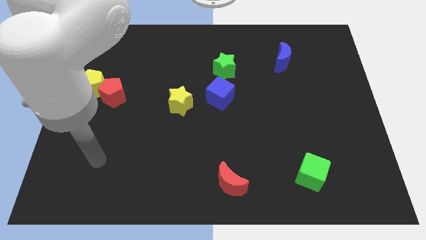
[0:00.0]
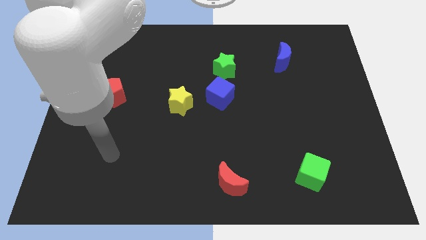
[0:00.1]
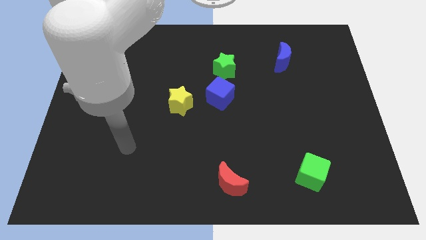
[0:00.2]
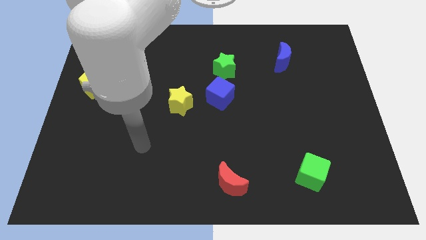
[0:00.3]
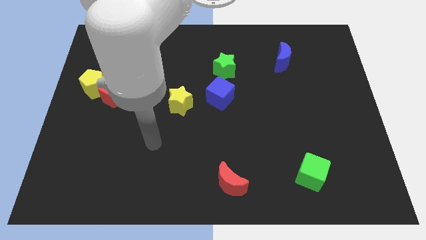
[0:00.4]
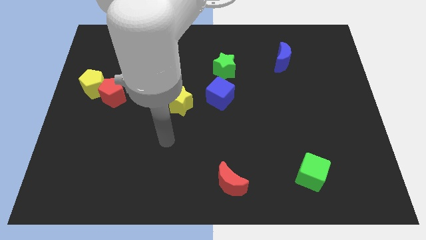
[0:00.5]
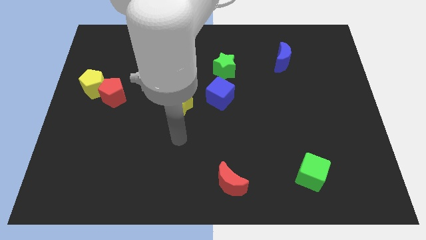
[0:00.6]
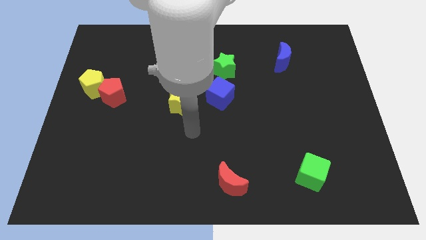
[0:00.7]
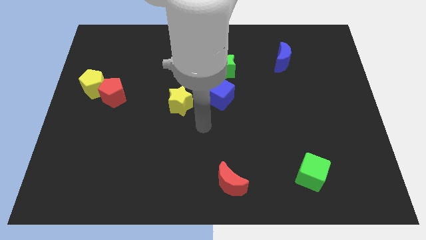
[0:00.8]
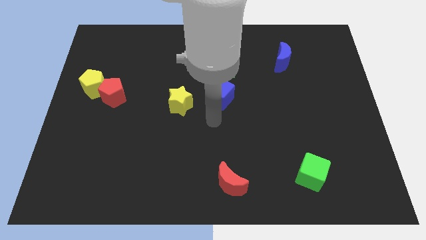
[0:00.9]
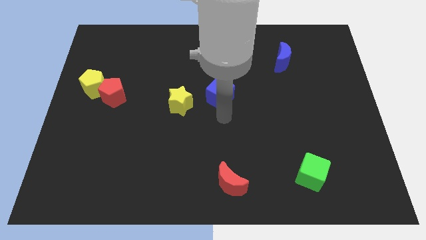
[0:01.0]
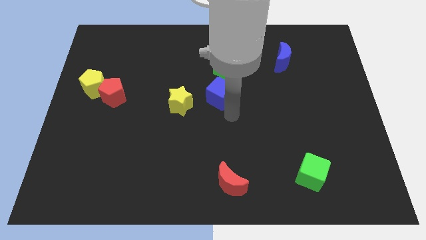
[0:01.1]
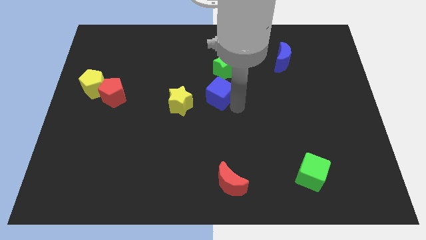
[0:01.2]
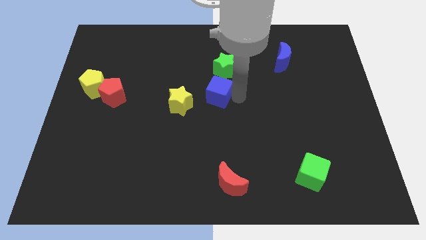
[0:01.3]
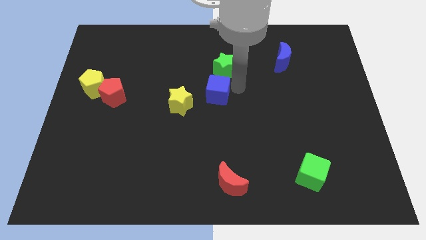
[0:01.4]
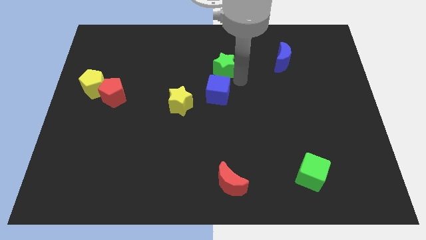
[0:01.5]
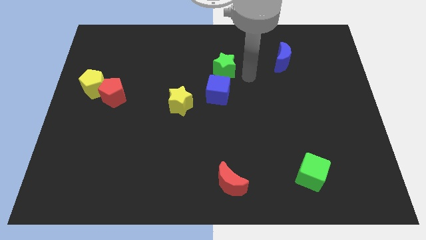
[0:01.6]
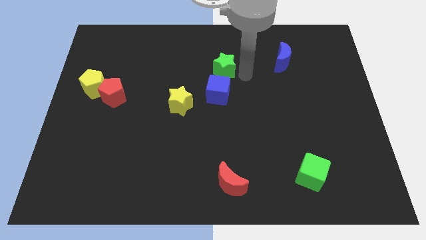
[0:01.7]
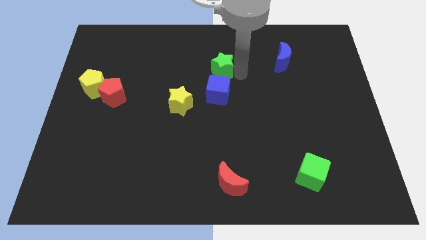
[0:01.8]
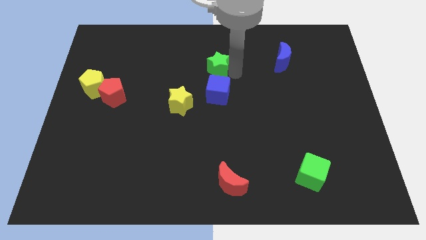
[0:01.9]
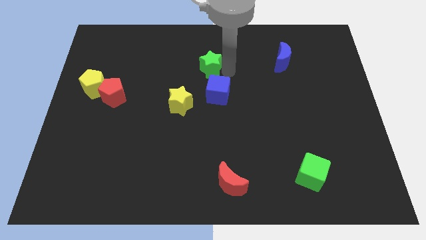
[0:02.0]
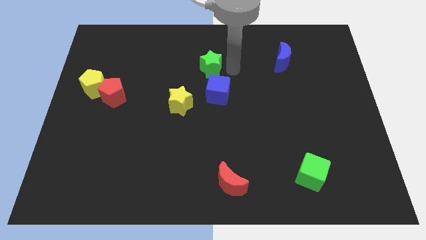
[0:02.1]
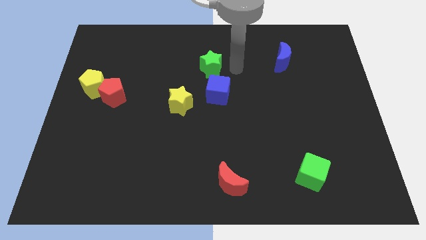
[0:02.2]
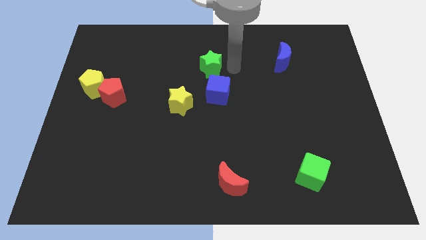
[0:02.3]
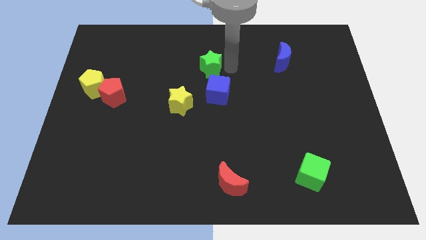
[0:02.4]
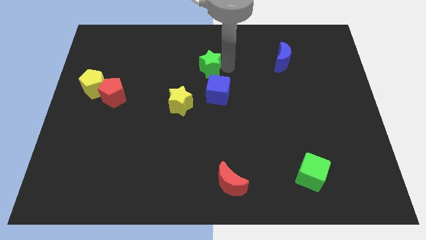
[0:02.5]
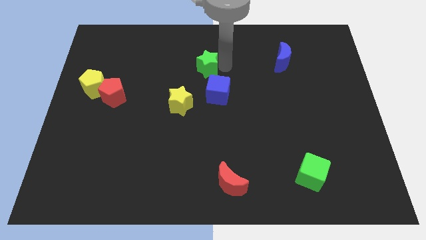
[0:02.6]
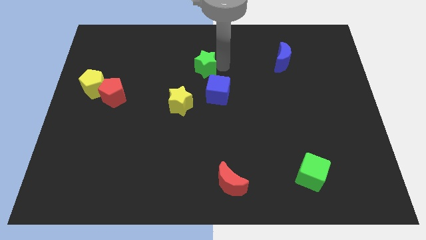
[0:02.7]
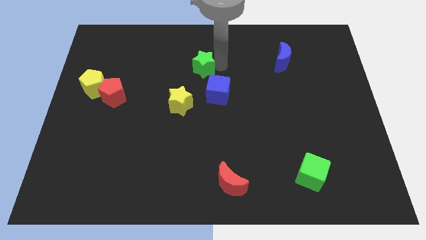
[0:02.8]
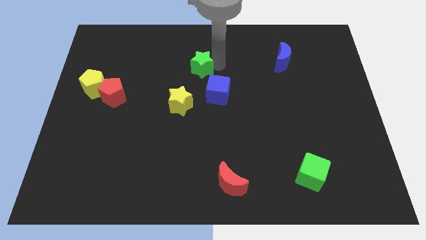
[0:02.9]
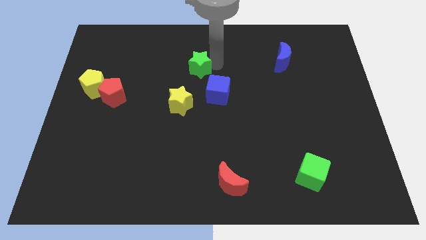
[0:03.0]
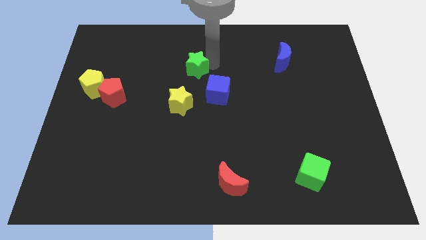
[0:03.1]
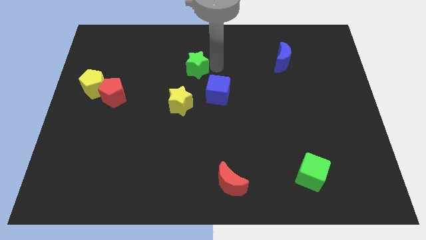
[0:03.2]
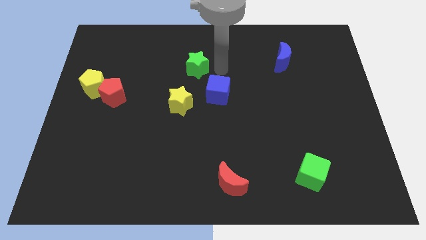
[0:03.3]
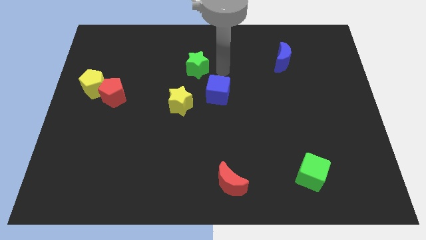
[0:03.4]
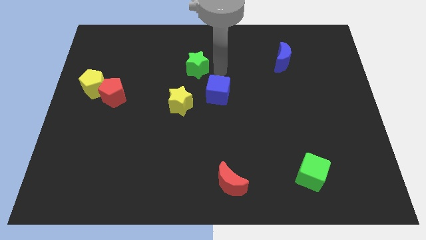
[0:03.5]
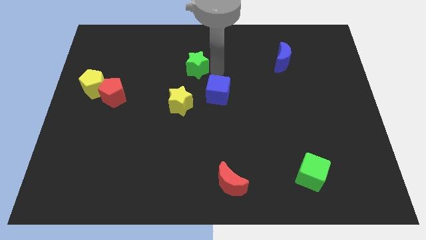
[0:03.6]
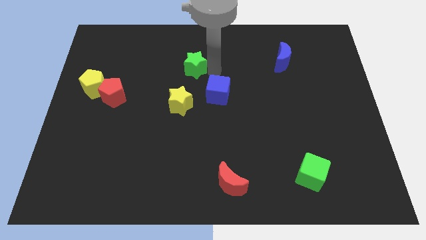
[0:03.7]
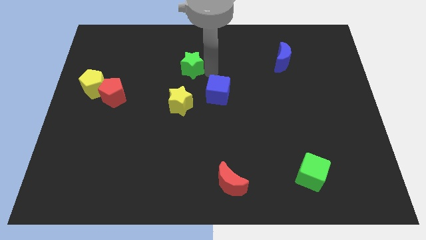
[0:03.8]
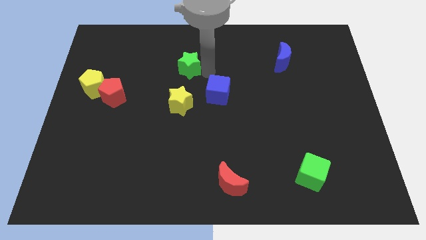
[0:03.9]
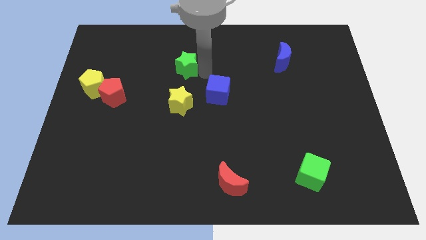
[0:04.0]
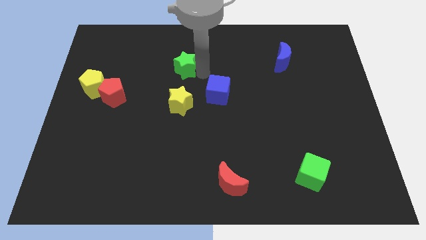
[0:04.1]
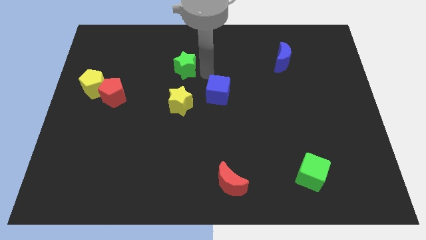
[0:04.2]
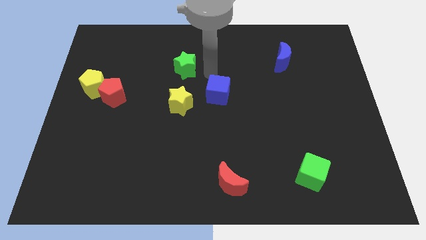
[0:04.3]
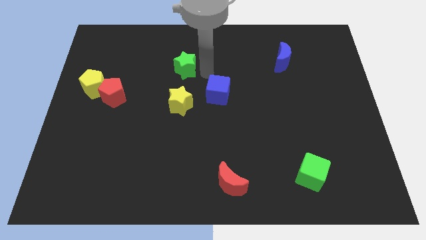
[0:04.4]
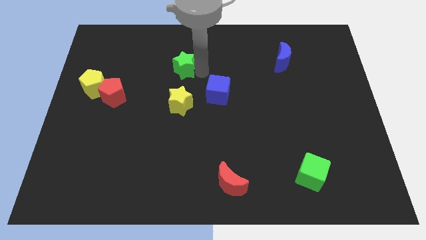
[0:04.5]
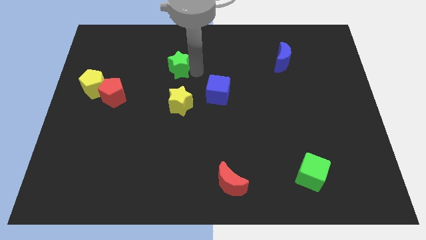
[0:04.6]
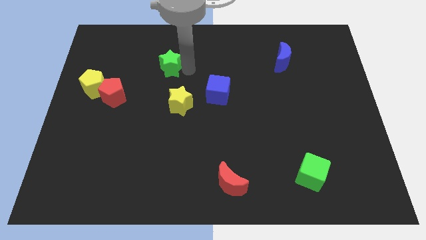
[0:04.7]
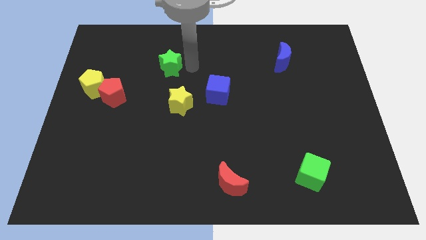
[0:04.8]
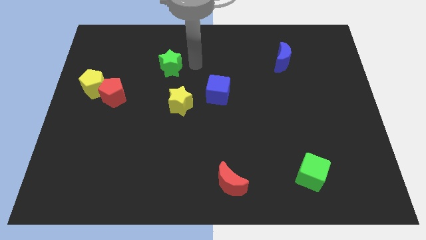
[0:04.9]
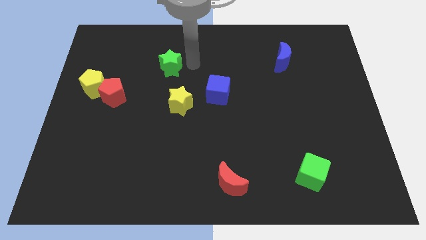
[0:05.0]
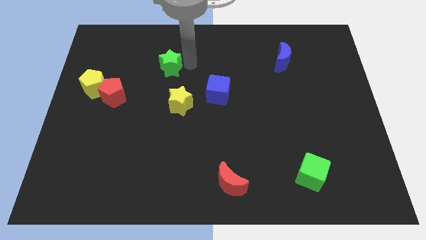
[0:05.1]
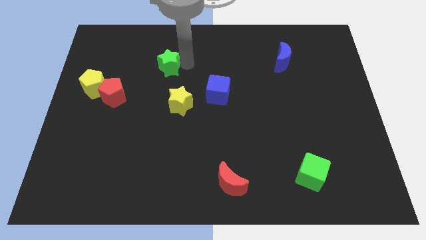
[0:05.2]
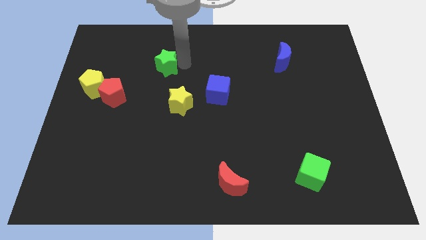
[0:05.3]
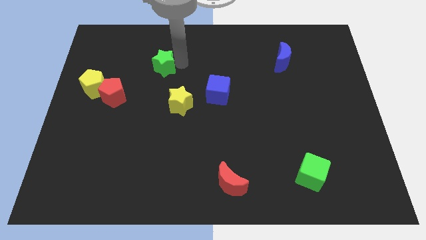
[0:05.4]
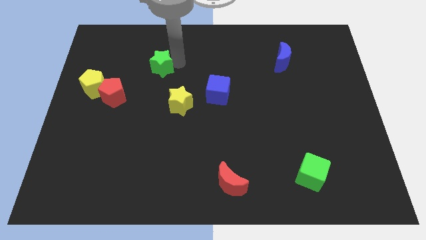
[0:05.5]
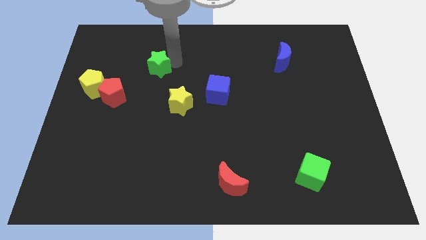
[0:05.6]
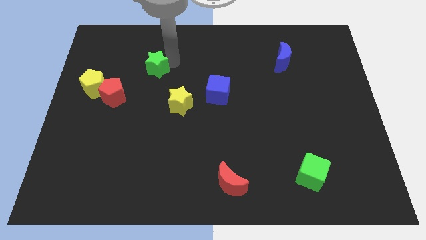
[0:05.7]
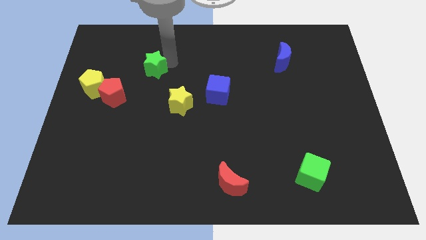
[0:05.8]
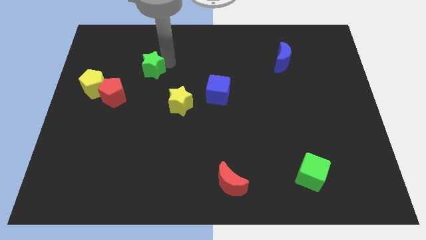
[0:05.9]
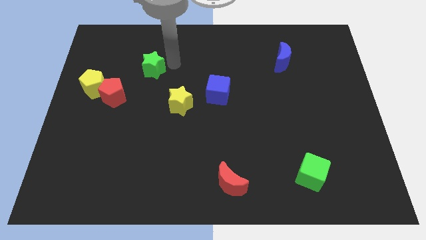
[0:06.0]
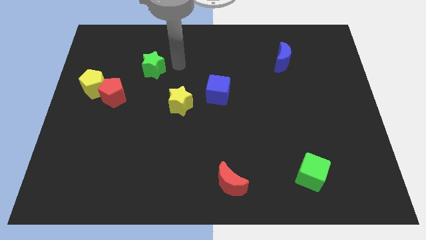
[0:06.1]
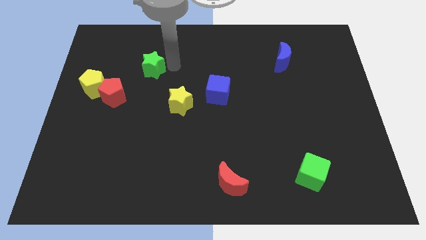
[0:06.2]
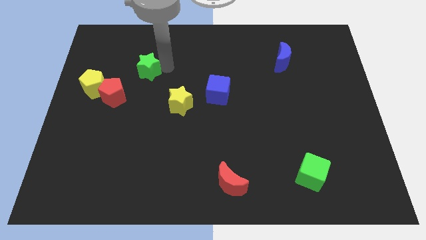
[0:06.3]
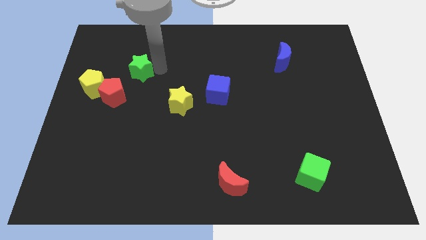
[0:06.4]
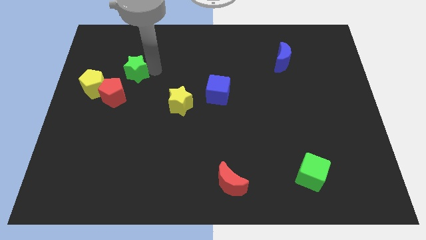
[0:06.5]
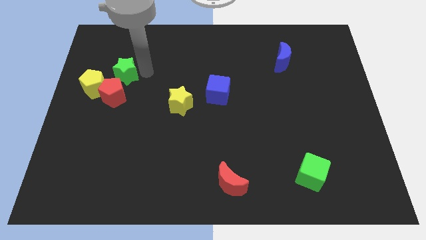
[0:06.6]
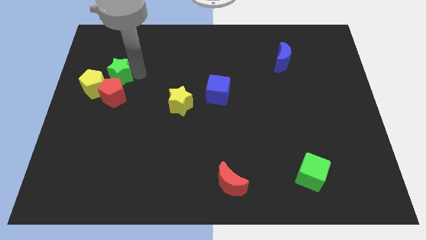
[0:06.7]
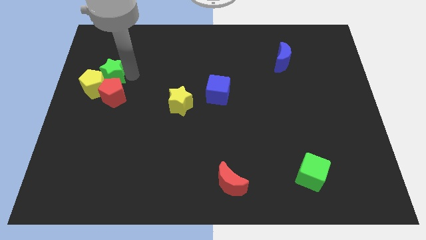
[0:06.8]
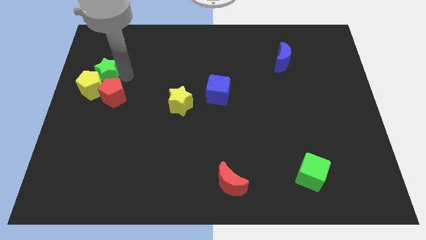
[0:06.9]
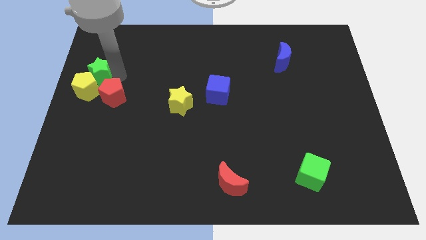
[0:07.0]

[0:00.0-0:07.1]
slide the green star to the center left
